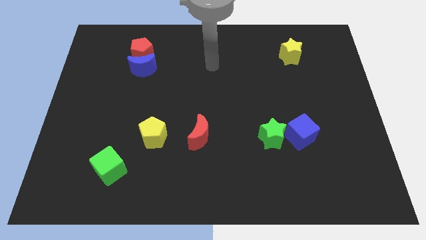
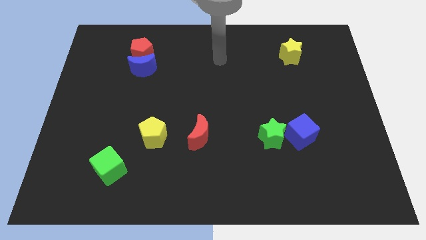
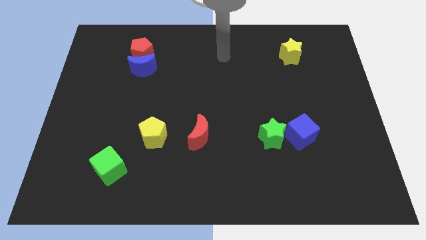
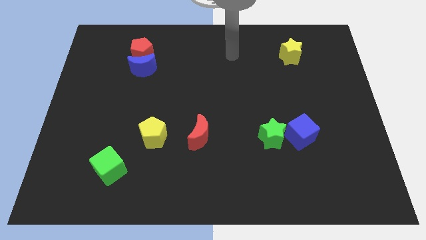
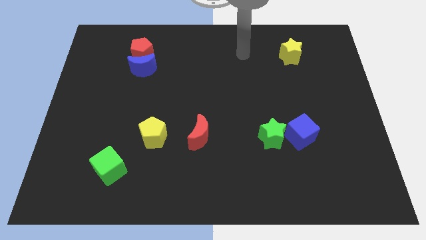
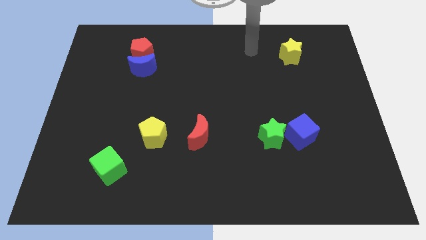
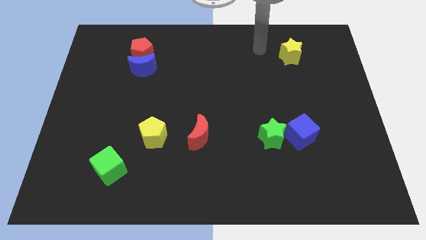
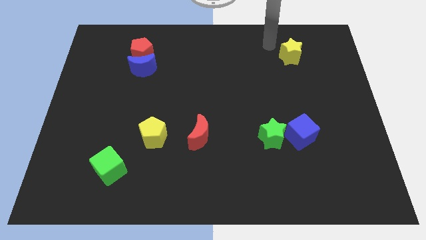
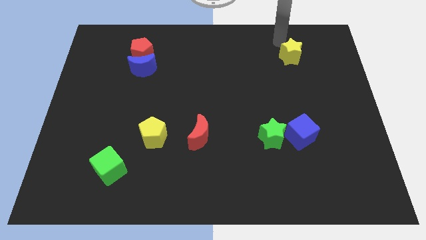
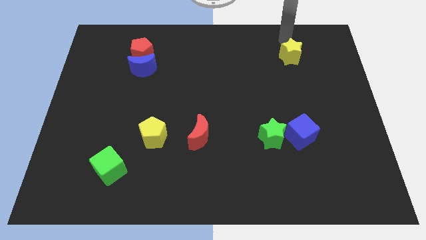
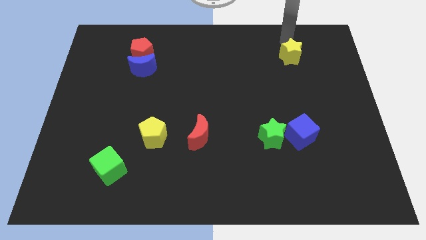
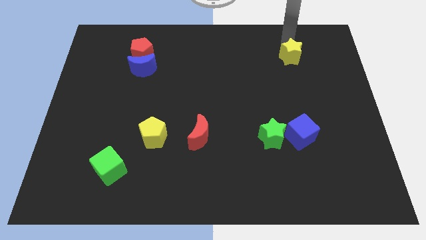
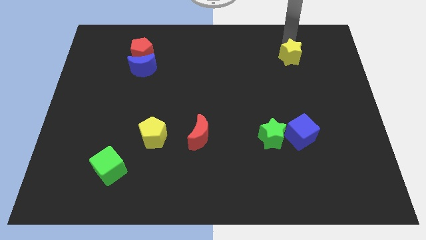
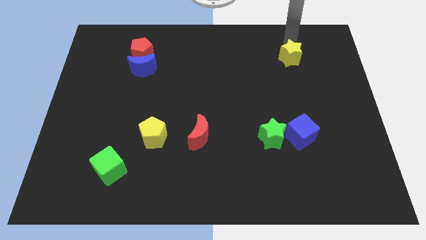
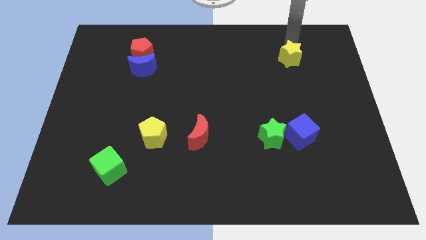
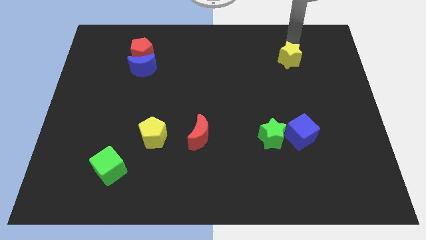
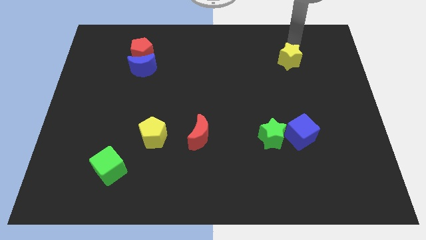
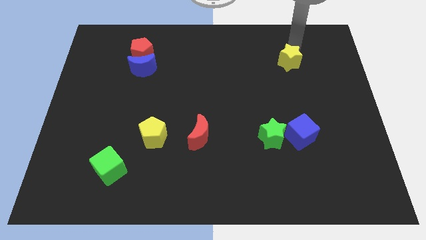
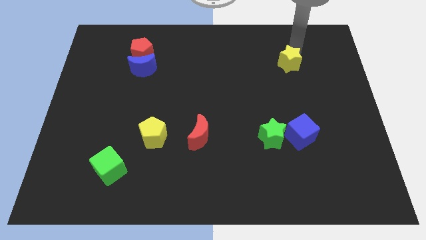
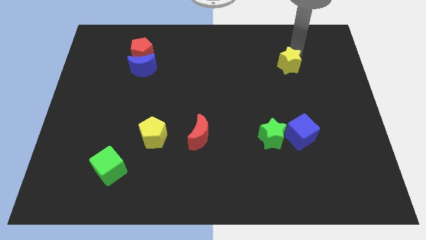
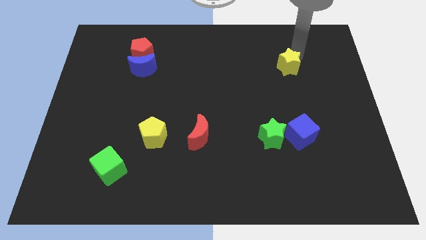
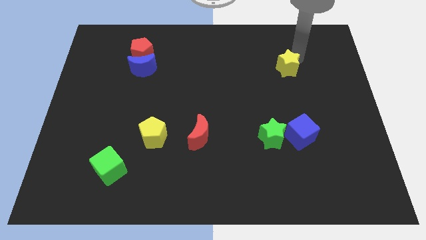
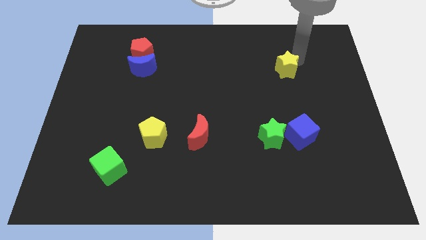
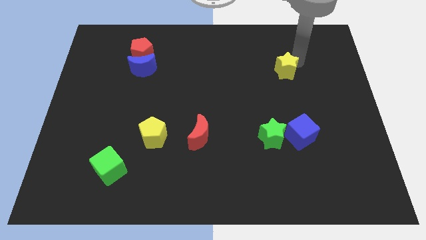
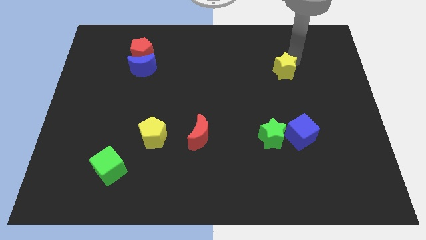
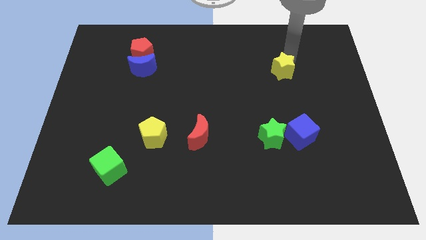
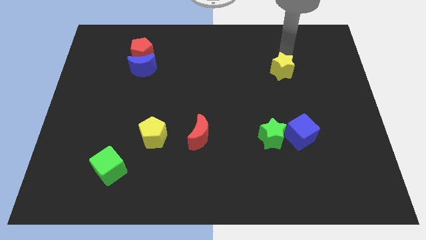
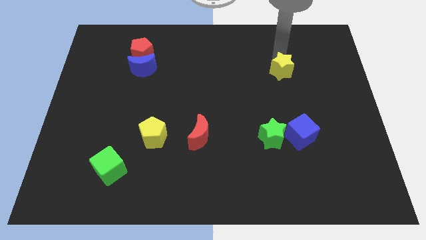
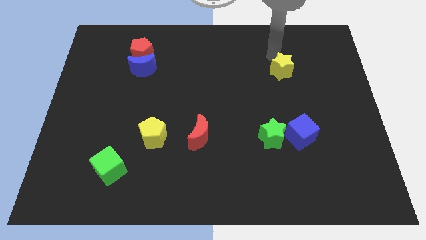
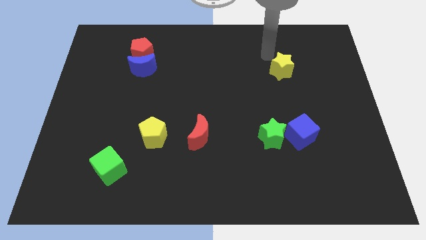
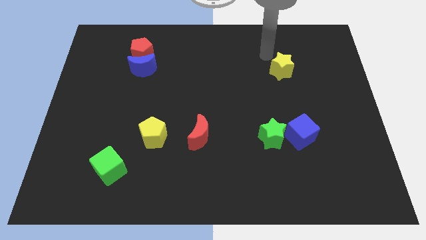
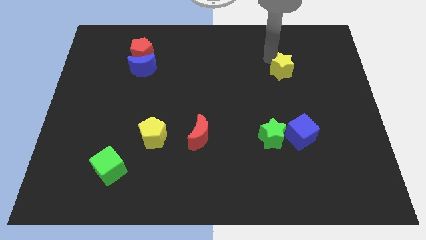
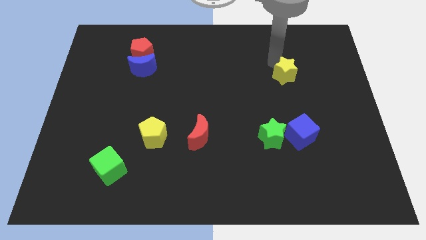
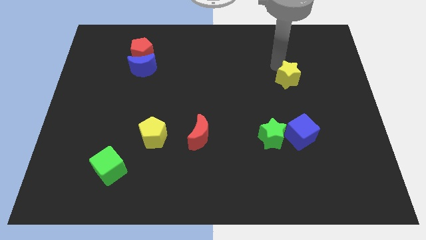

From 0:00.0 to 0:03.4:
slightly push the yellow star down

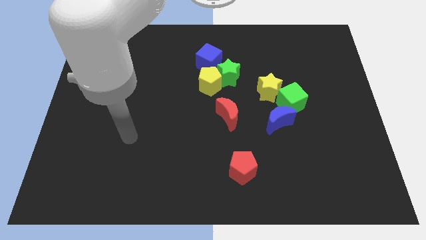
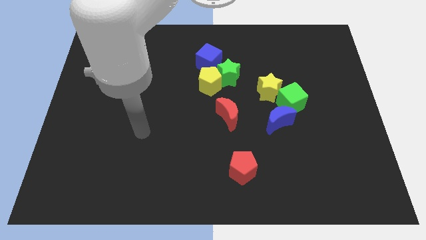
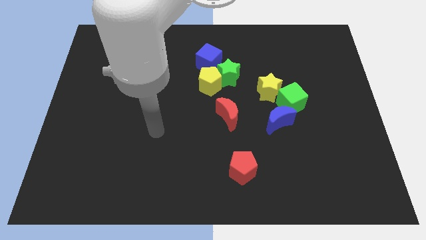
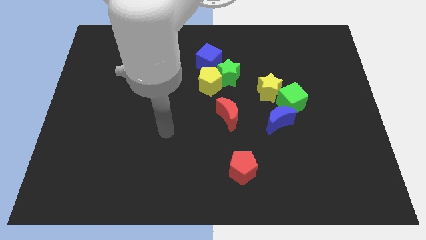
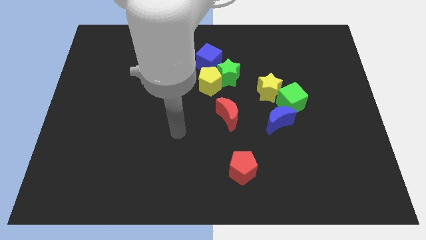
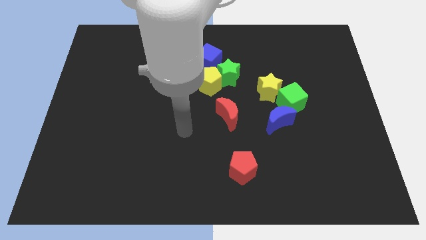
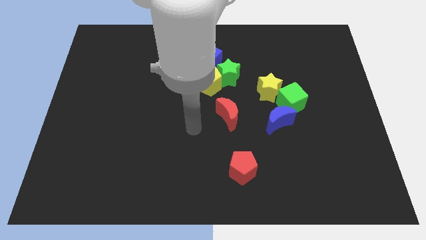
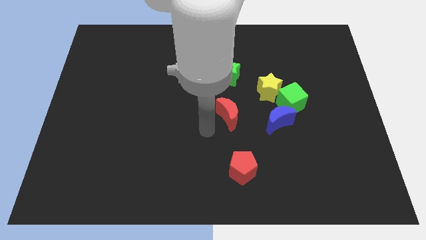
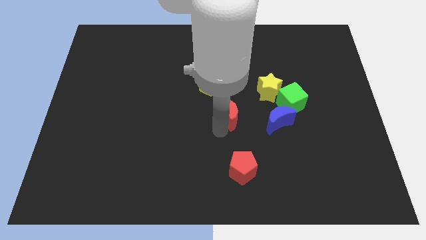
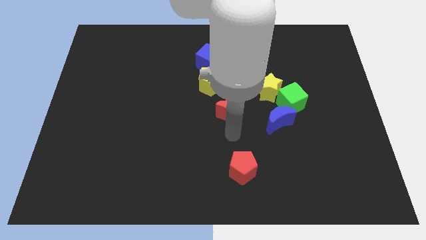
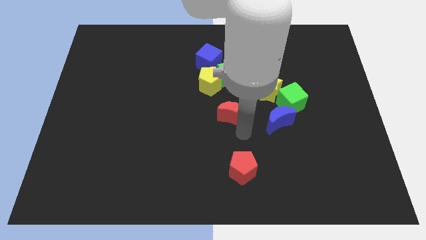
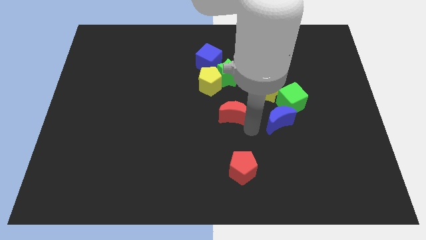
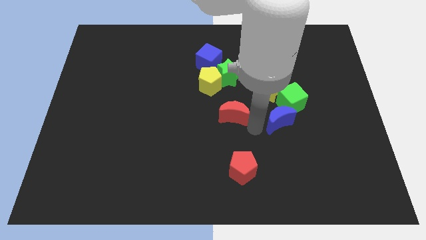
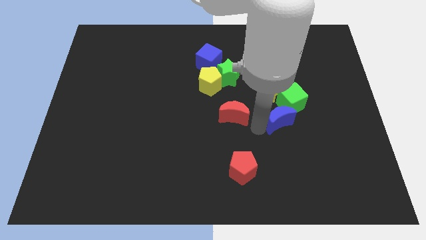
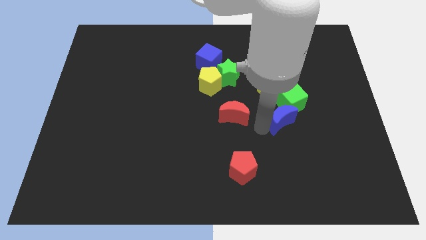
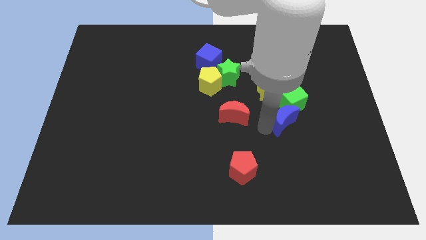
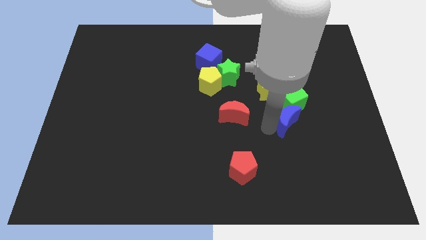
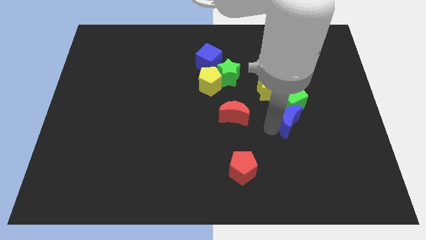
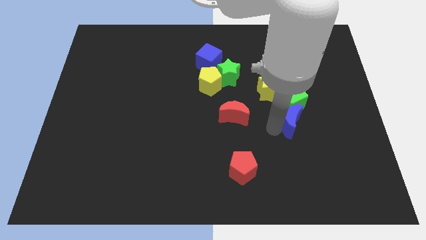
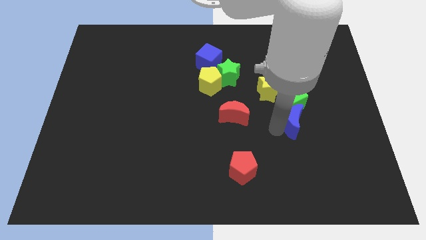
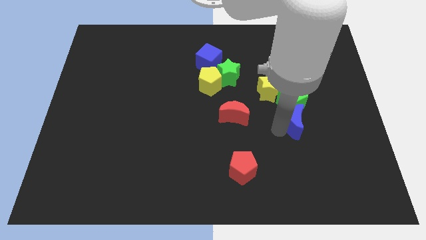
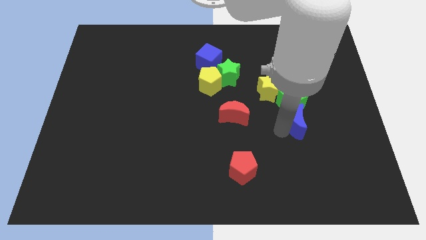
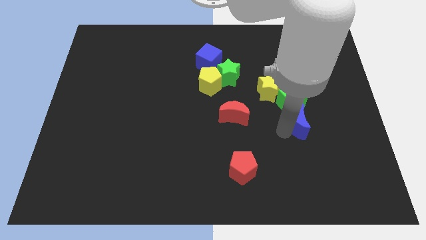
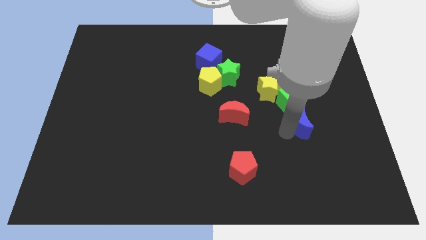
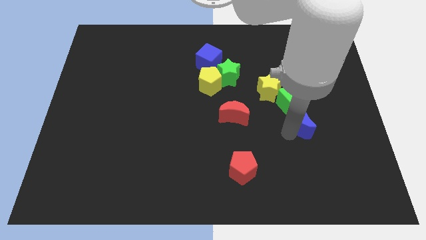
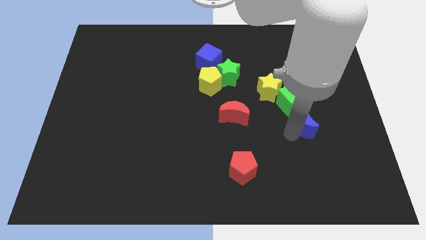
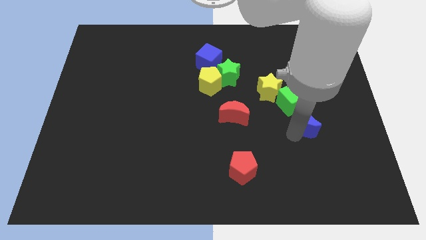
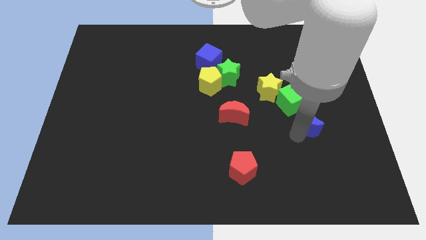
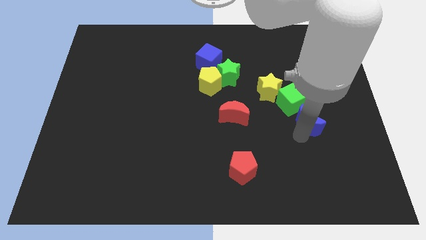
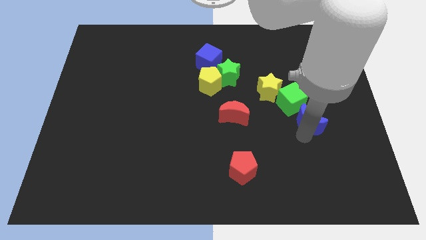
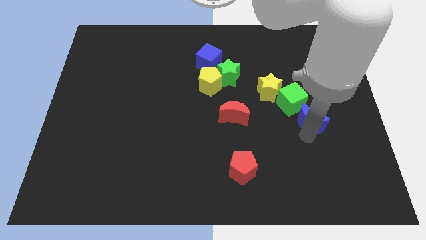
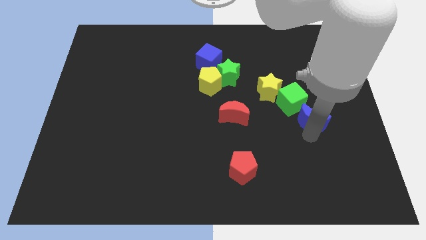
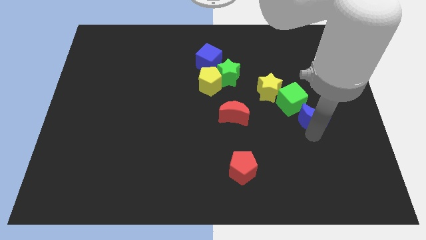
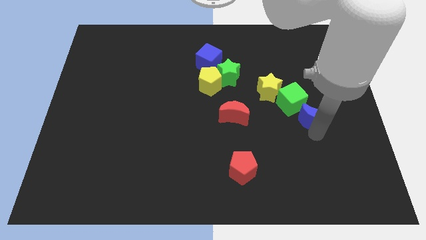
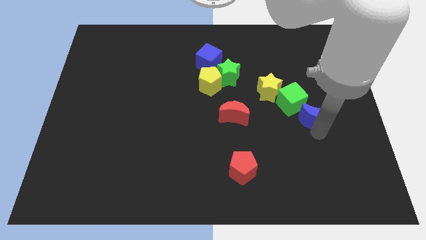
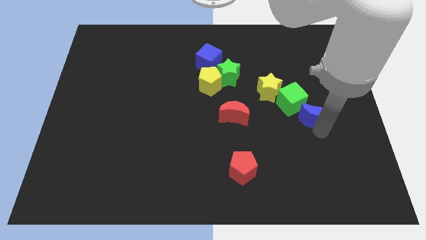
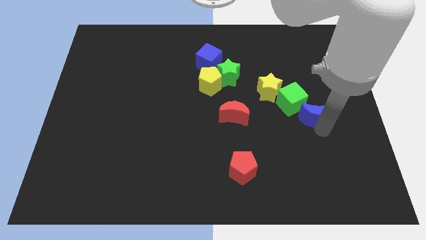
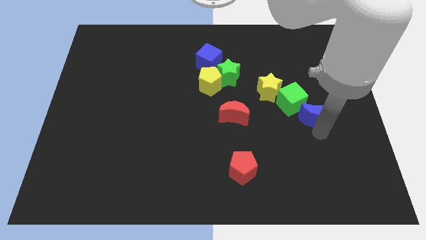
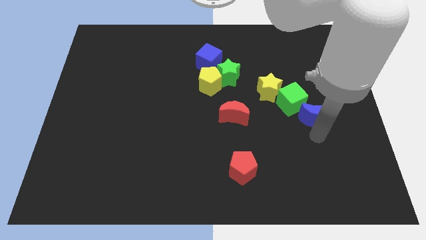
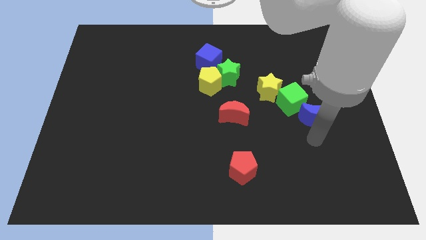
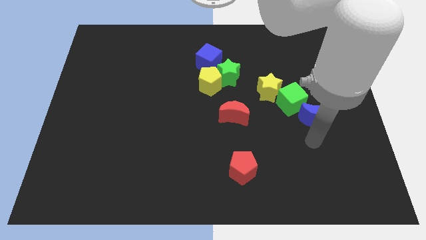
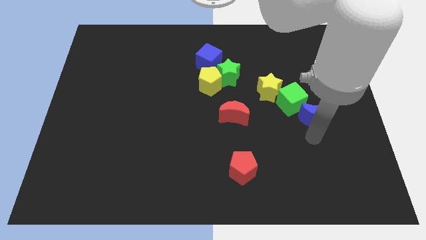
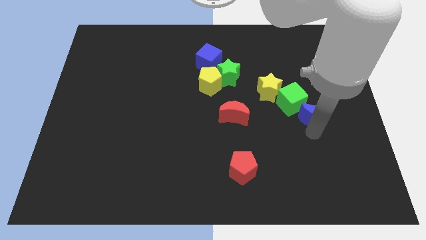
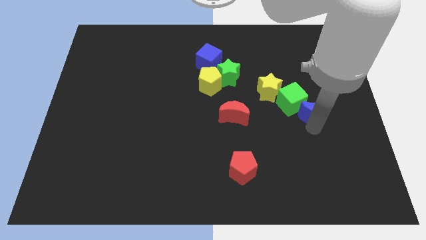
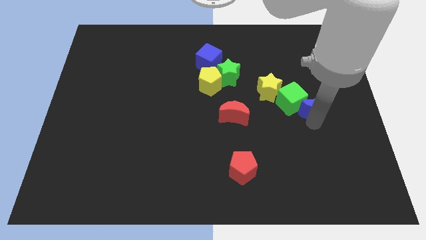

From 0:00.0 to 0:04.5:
slightly move the blue moon up and to the right

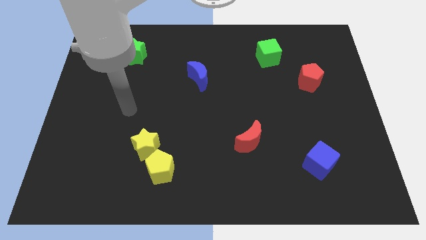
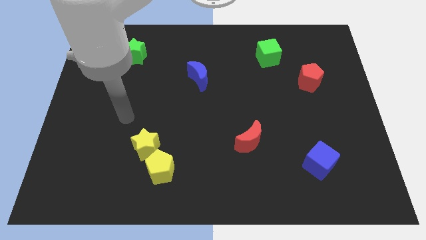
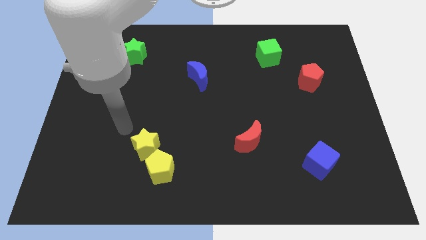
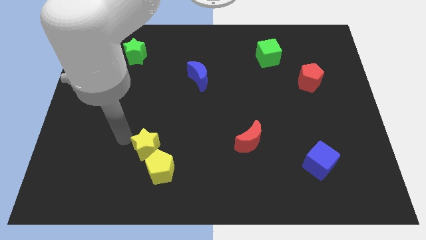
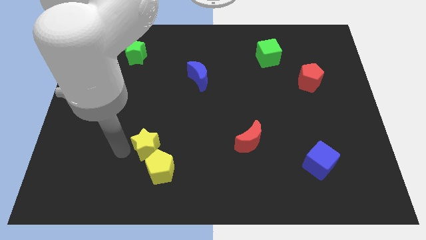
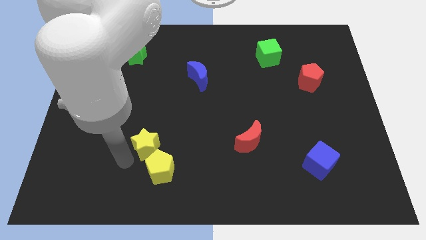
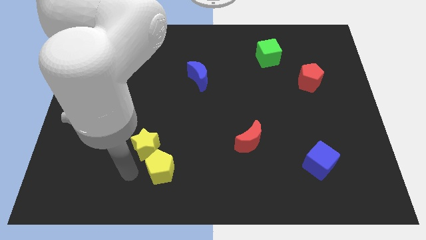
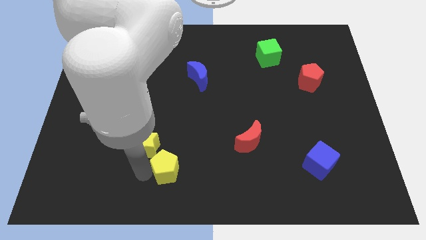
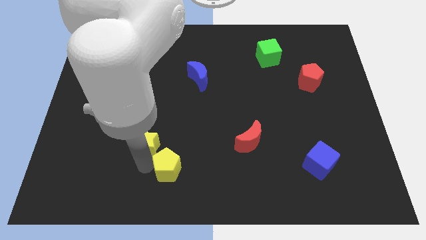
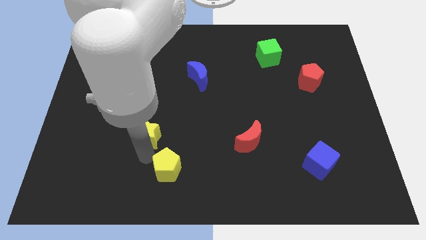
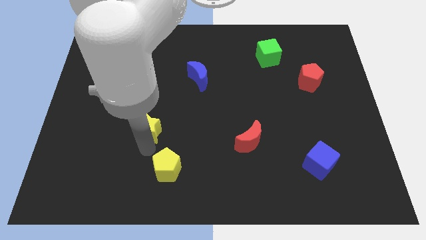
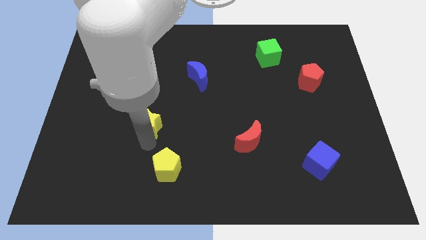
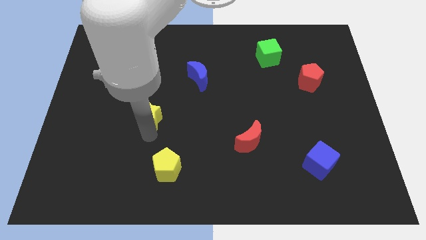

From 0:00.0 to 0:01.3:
slightly move the yellow star up
